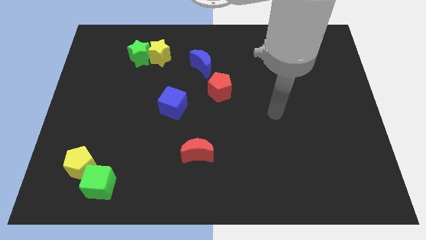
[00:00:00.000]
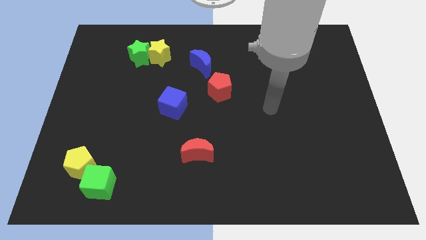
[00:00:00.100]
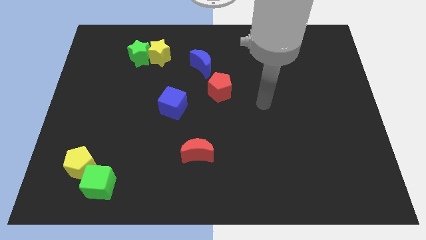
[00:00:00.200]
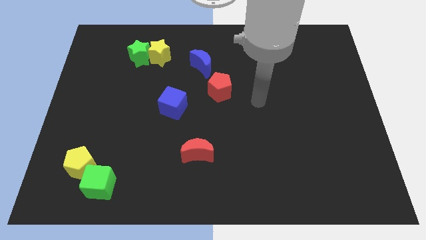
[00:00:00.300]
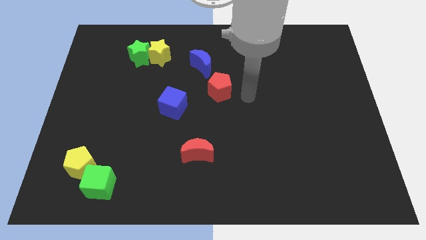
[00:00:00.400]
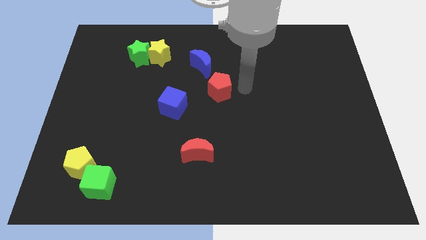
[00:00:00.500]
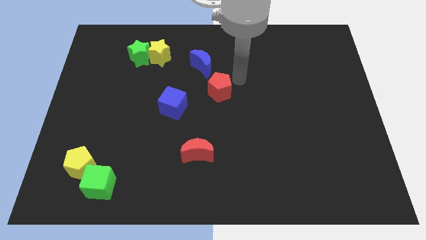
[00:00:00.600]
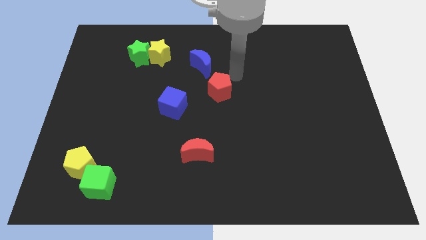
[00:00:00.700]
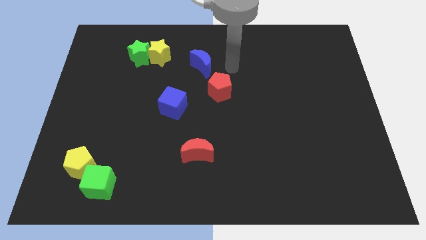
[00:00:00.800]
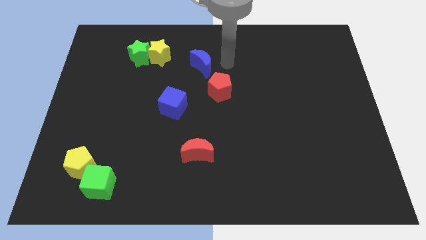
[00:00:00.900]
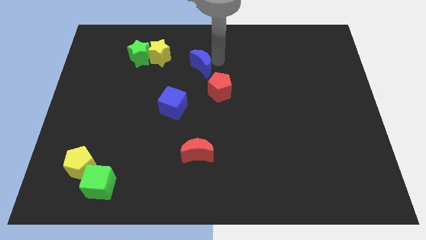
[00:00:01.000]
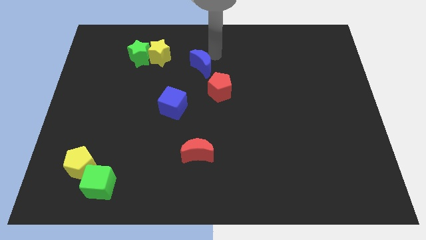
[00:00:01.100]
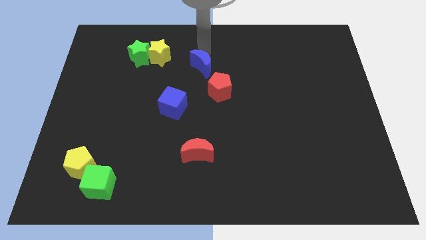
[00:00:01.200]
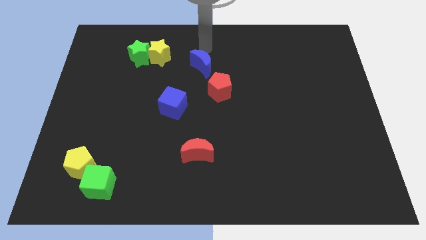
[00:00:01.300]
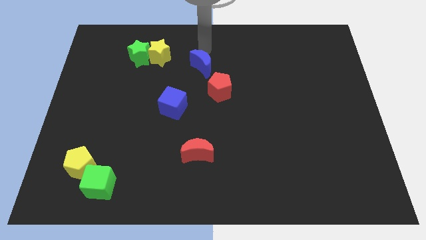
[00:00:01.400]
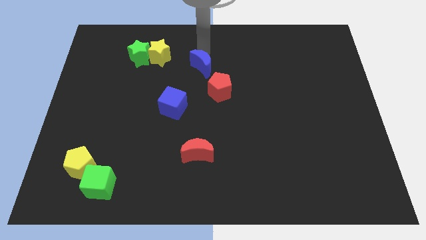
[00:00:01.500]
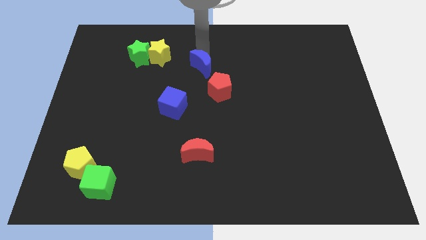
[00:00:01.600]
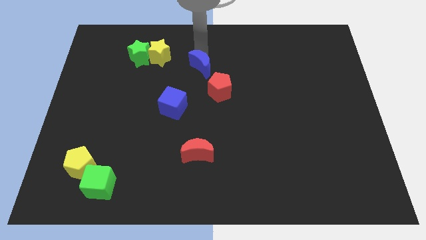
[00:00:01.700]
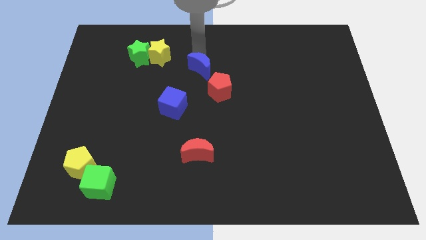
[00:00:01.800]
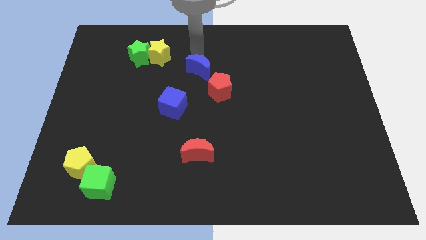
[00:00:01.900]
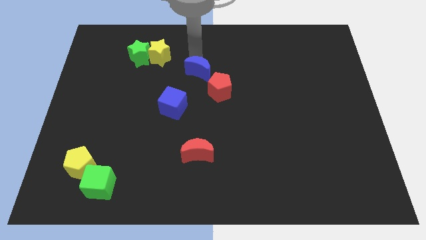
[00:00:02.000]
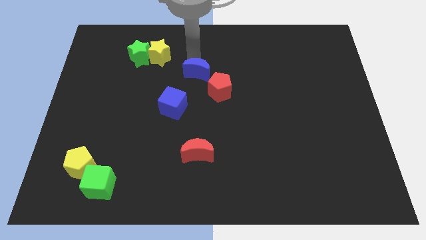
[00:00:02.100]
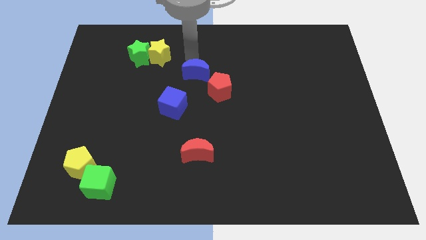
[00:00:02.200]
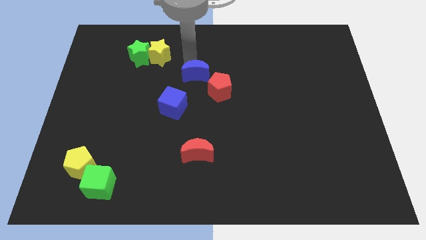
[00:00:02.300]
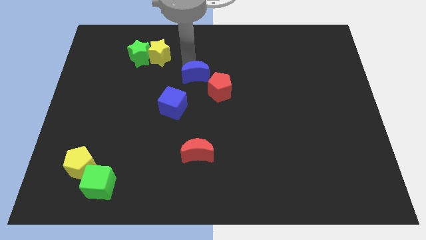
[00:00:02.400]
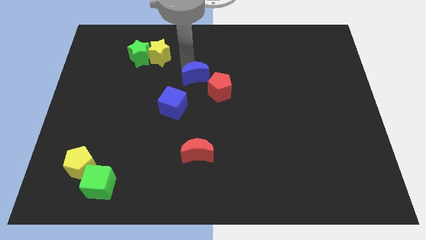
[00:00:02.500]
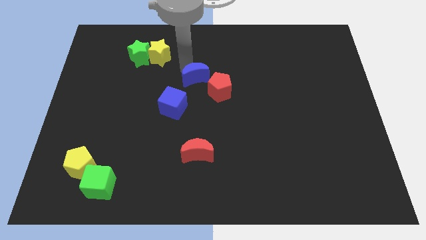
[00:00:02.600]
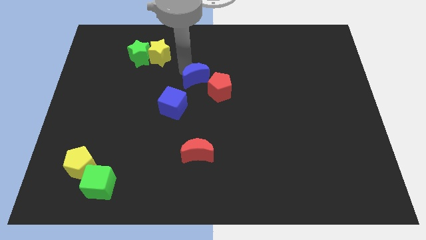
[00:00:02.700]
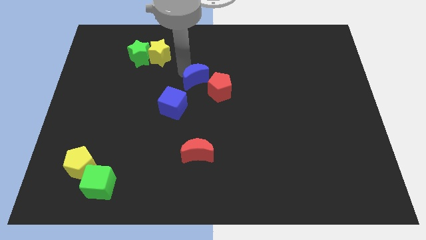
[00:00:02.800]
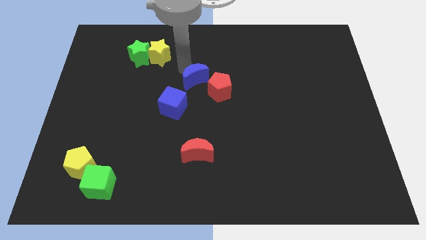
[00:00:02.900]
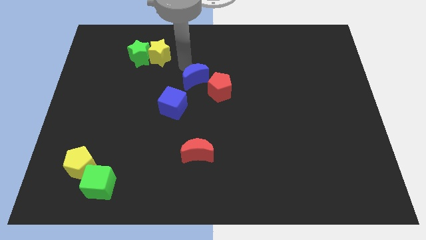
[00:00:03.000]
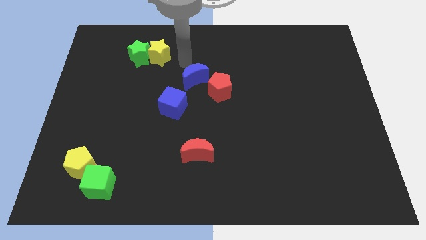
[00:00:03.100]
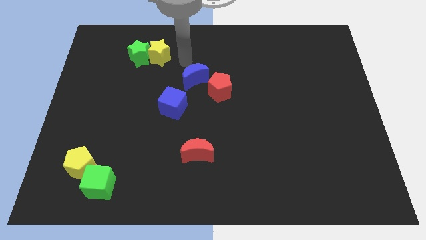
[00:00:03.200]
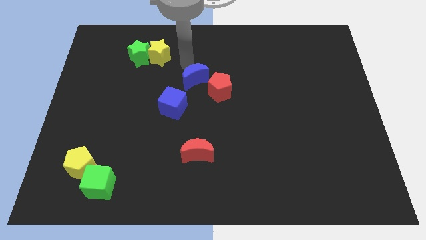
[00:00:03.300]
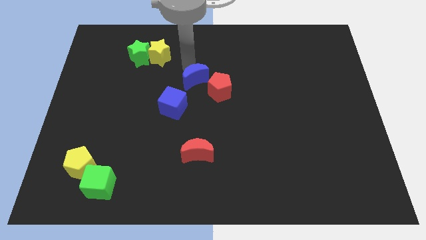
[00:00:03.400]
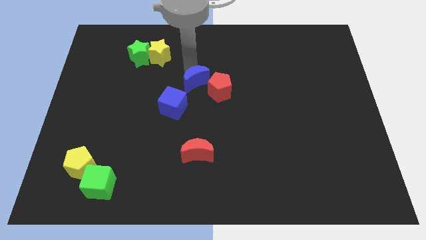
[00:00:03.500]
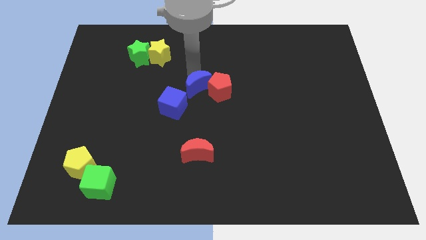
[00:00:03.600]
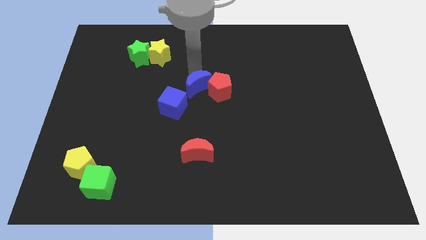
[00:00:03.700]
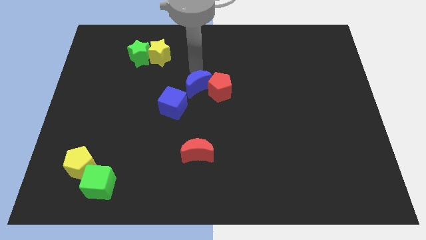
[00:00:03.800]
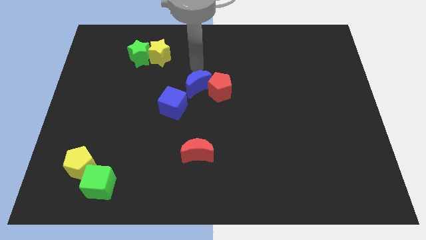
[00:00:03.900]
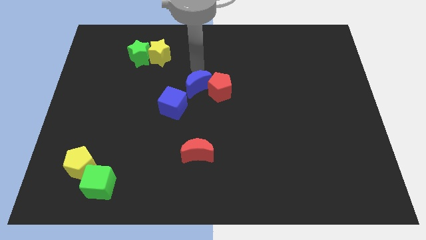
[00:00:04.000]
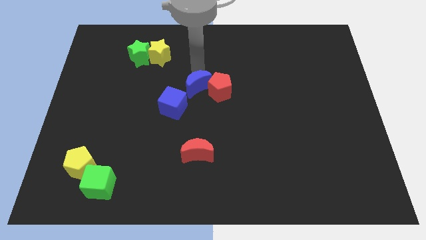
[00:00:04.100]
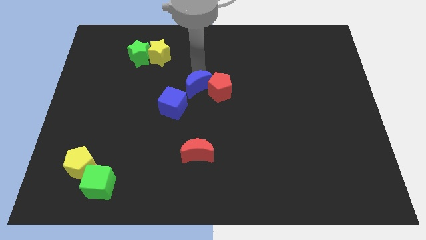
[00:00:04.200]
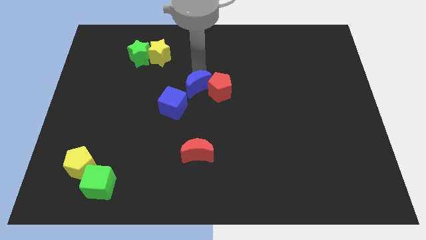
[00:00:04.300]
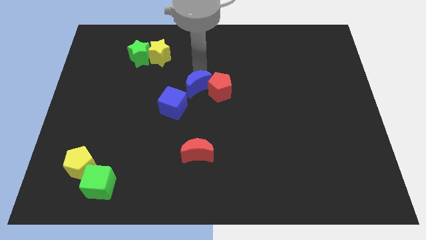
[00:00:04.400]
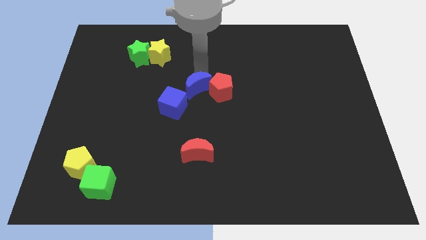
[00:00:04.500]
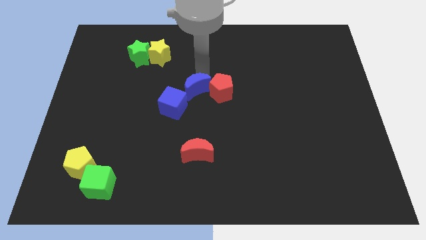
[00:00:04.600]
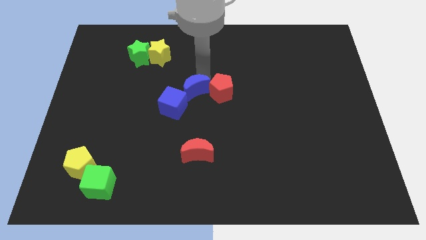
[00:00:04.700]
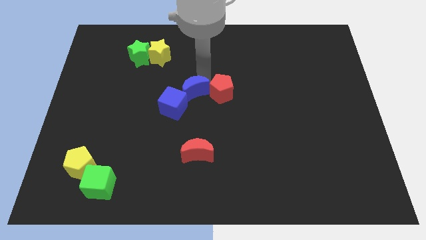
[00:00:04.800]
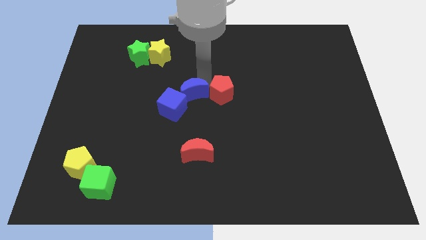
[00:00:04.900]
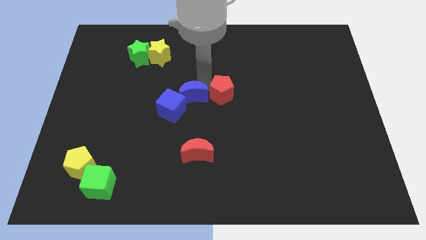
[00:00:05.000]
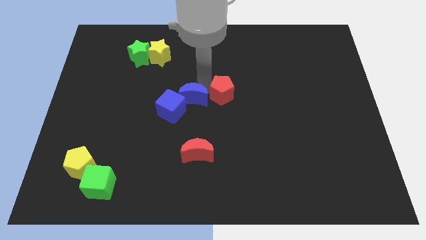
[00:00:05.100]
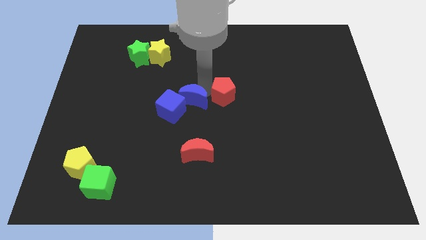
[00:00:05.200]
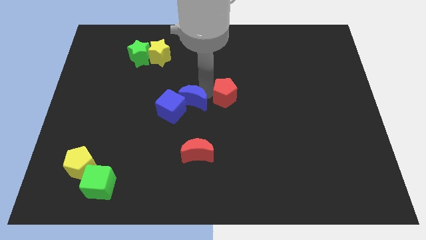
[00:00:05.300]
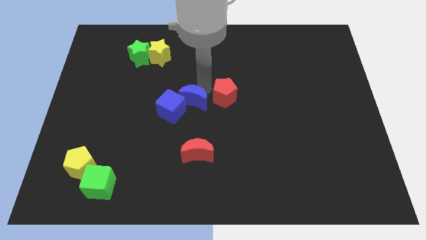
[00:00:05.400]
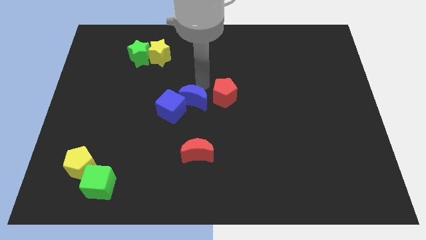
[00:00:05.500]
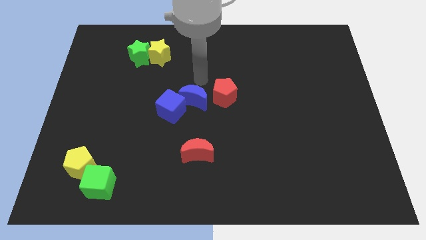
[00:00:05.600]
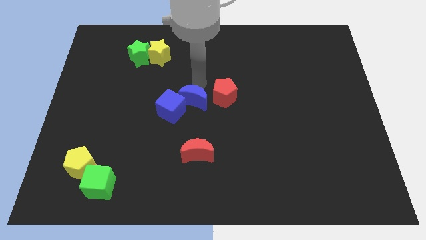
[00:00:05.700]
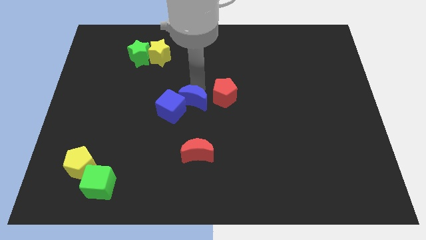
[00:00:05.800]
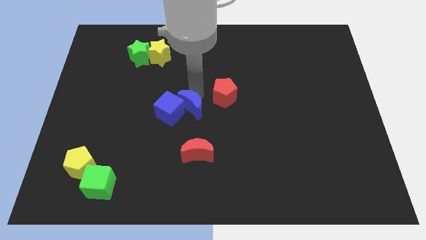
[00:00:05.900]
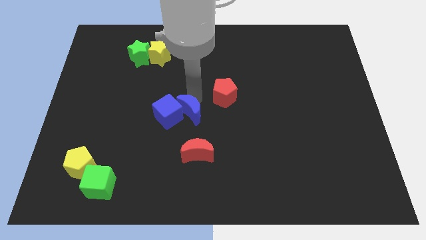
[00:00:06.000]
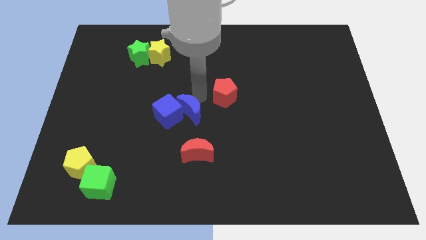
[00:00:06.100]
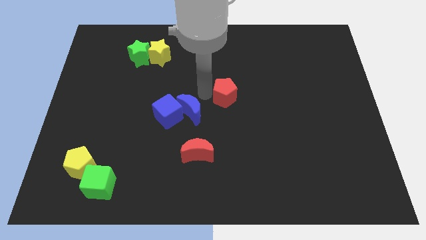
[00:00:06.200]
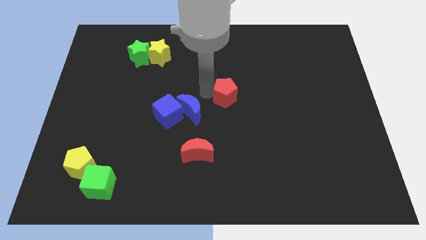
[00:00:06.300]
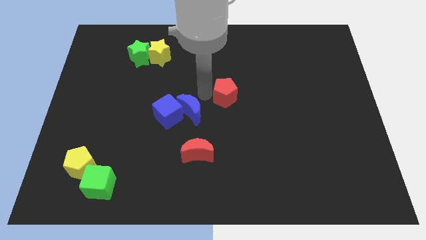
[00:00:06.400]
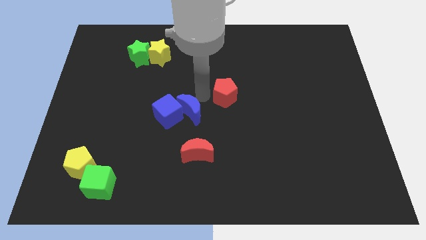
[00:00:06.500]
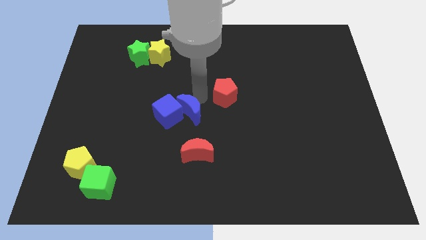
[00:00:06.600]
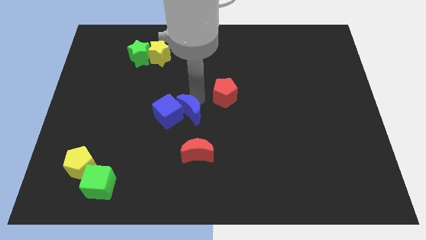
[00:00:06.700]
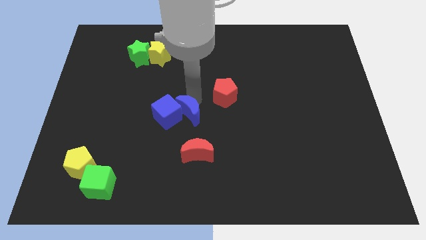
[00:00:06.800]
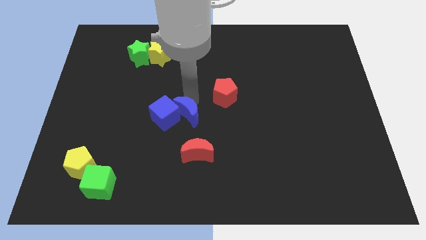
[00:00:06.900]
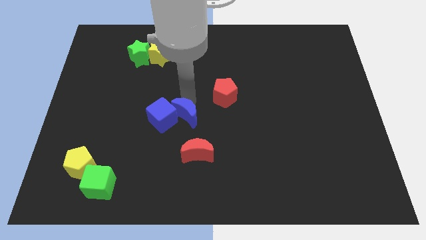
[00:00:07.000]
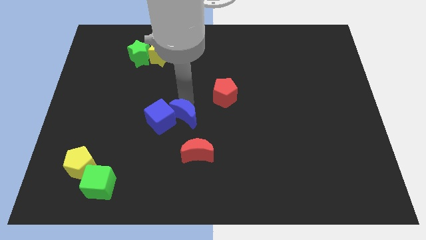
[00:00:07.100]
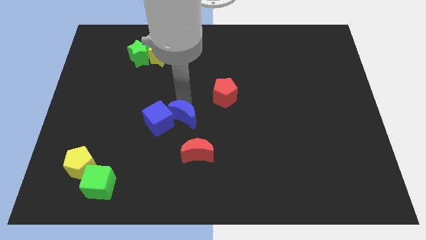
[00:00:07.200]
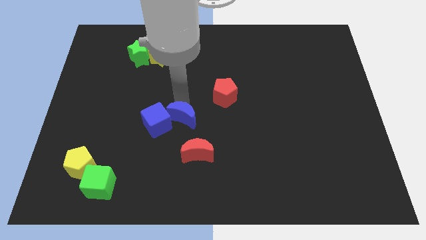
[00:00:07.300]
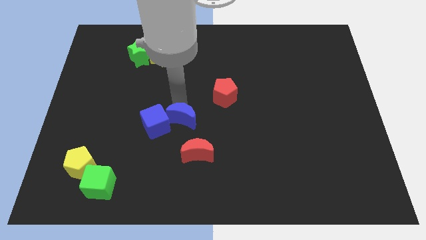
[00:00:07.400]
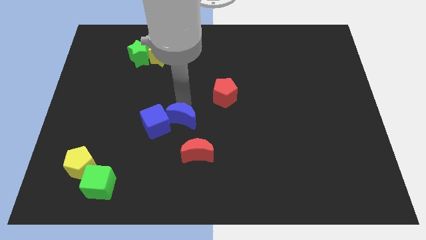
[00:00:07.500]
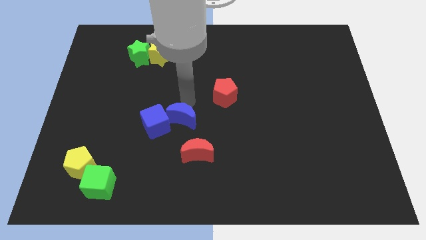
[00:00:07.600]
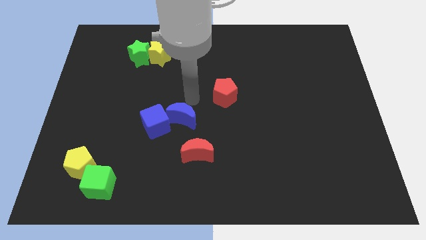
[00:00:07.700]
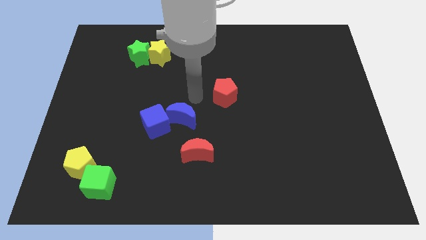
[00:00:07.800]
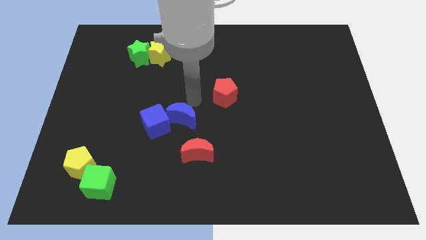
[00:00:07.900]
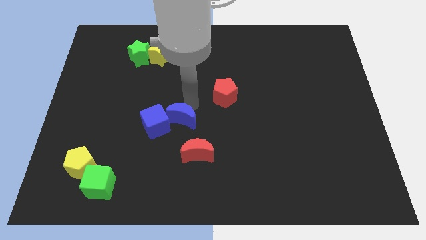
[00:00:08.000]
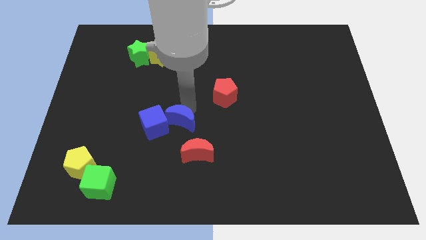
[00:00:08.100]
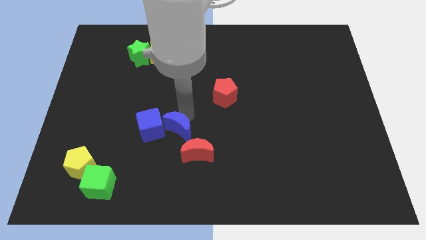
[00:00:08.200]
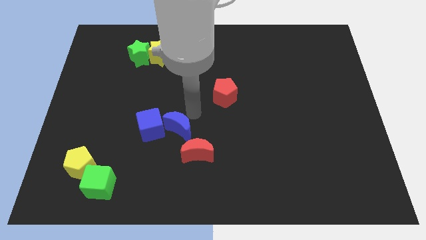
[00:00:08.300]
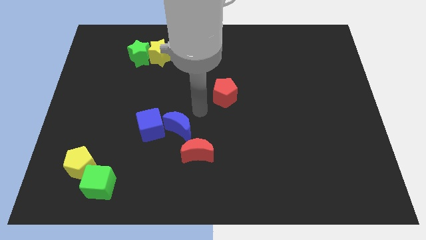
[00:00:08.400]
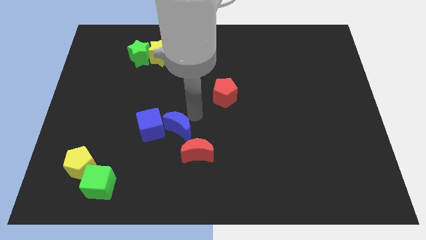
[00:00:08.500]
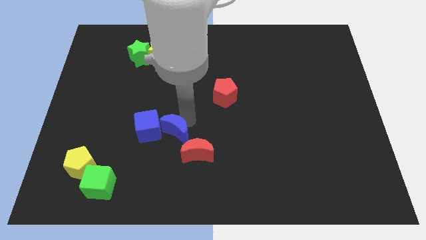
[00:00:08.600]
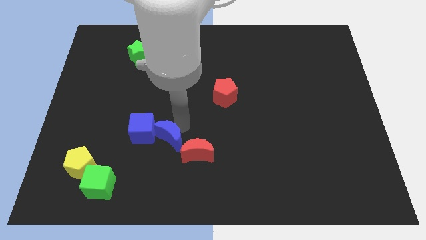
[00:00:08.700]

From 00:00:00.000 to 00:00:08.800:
move the blue moon just left of the red moon
